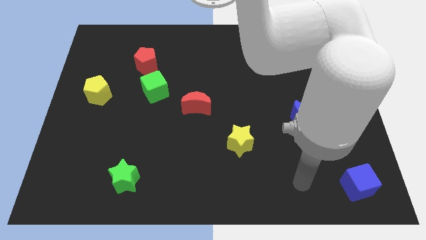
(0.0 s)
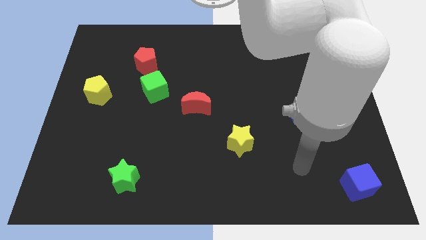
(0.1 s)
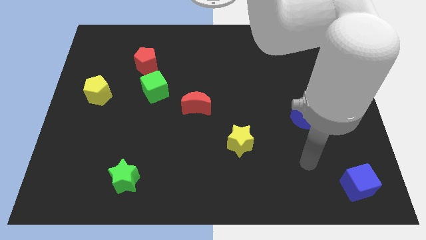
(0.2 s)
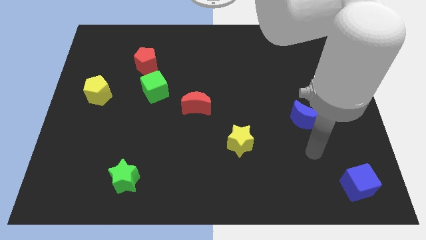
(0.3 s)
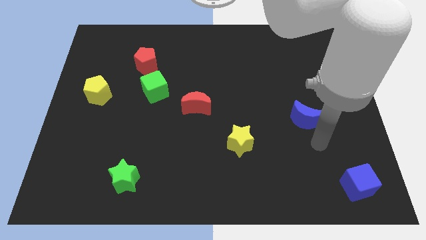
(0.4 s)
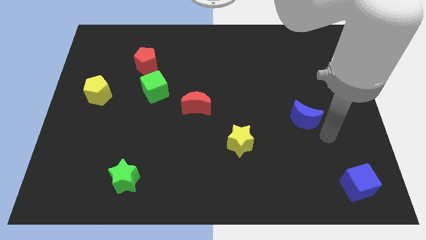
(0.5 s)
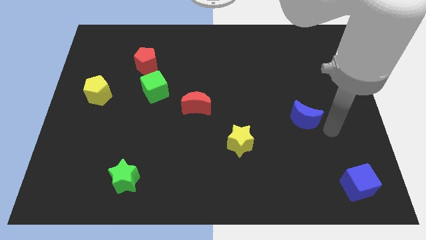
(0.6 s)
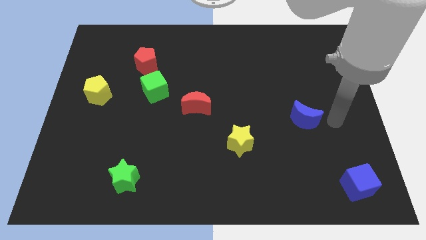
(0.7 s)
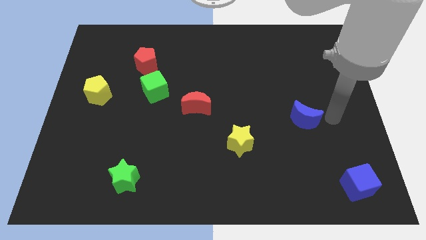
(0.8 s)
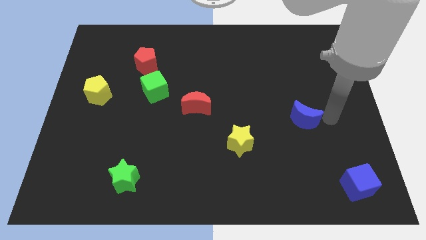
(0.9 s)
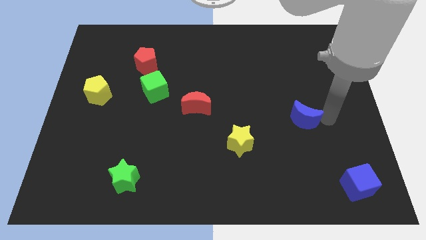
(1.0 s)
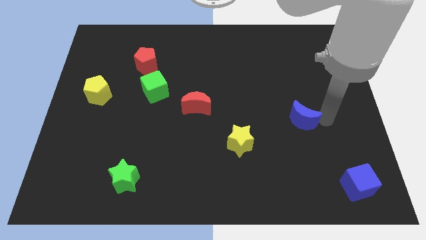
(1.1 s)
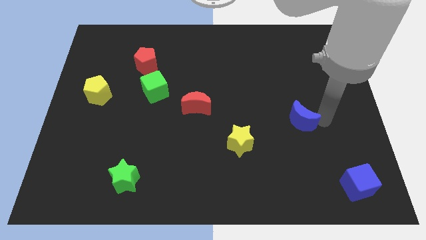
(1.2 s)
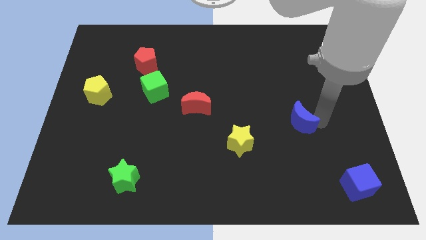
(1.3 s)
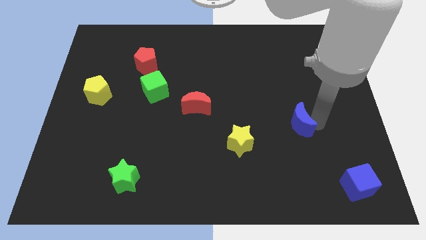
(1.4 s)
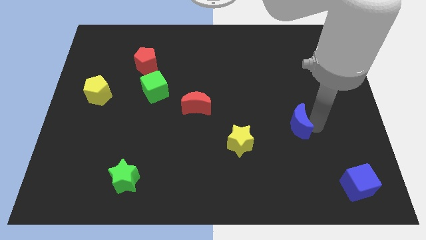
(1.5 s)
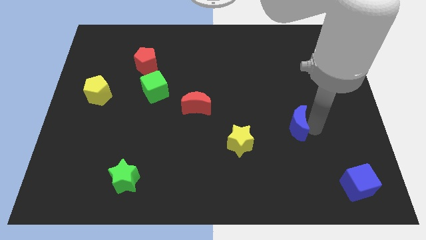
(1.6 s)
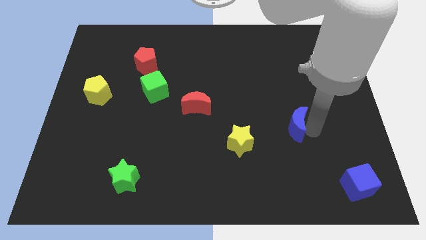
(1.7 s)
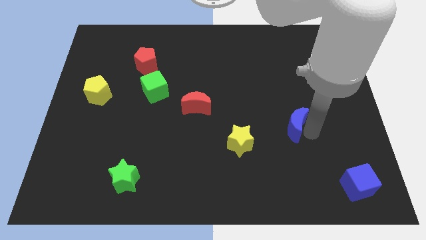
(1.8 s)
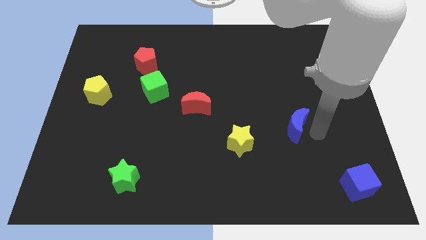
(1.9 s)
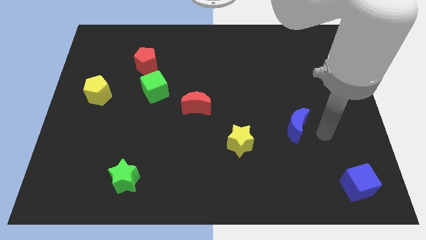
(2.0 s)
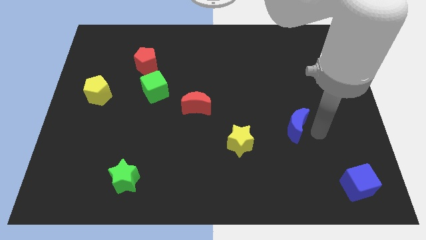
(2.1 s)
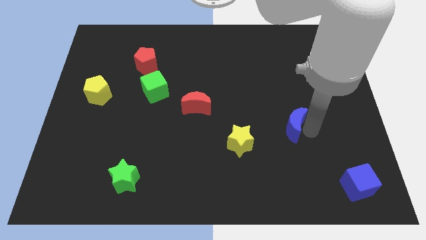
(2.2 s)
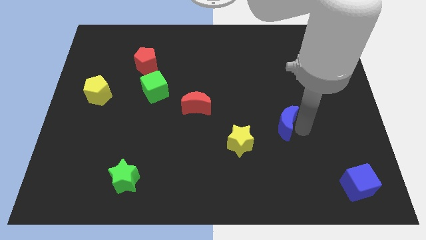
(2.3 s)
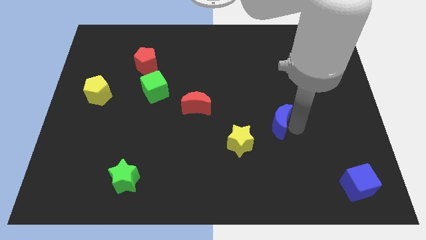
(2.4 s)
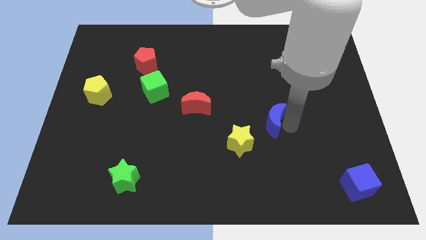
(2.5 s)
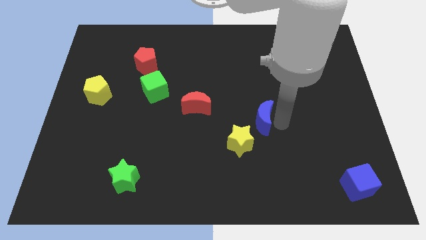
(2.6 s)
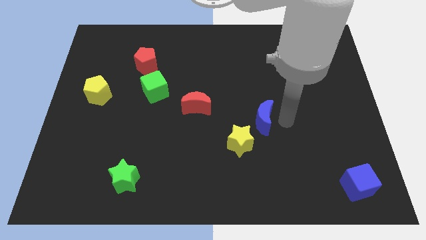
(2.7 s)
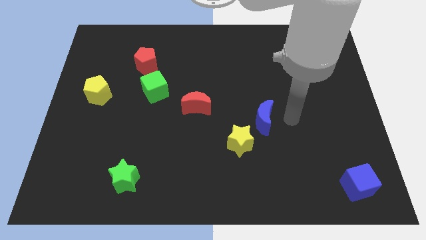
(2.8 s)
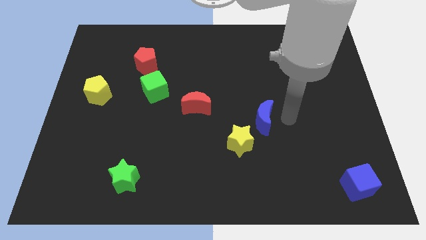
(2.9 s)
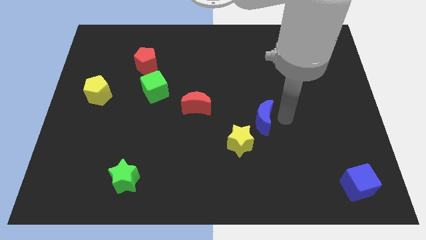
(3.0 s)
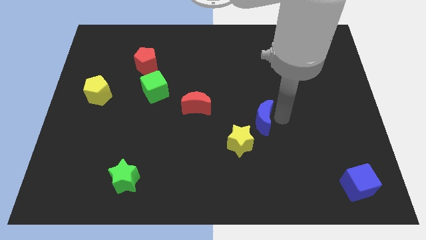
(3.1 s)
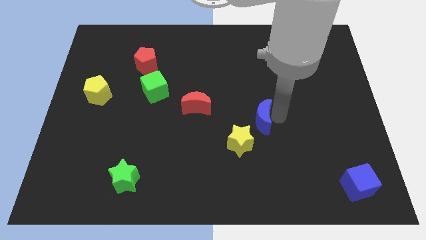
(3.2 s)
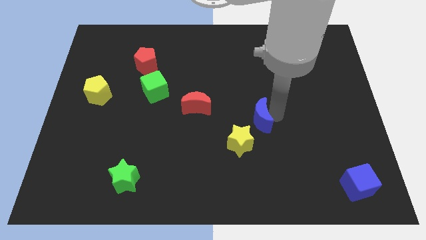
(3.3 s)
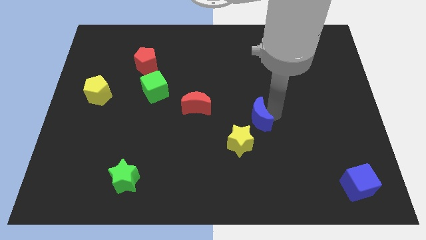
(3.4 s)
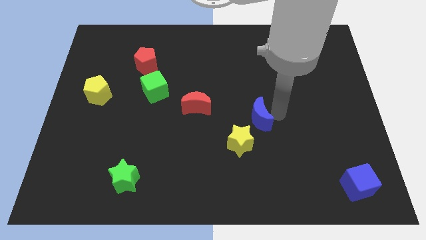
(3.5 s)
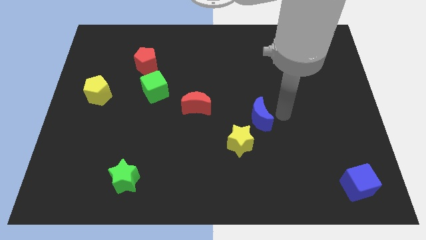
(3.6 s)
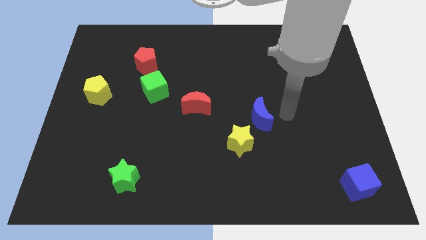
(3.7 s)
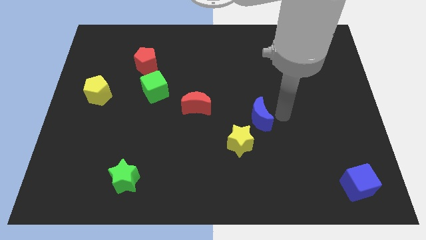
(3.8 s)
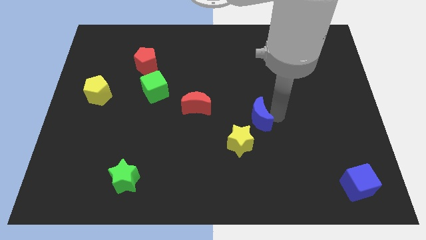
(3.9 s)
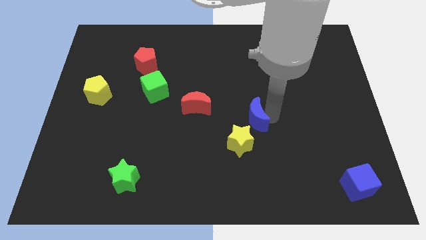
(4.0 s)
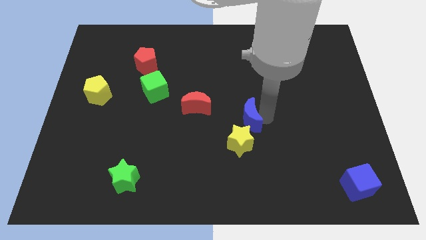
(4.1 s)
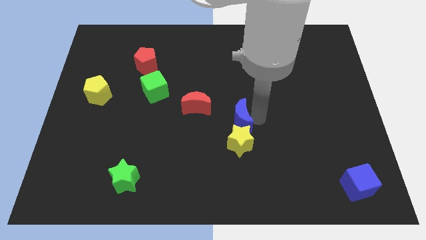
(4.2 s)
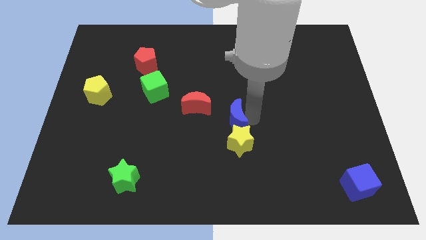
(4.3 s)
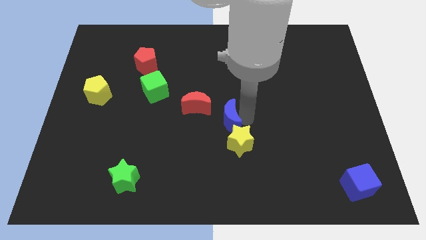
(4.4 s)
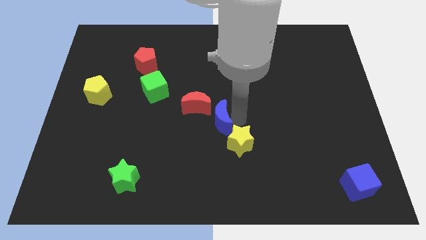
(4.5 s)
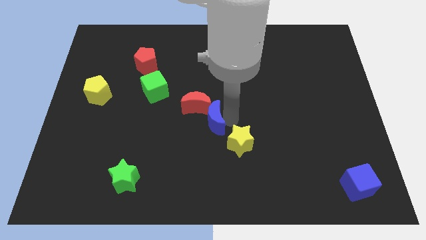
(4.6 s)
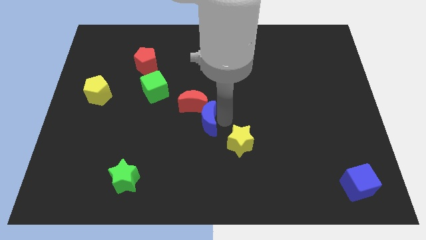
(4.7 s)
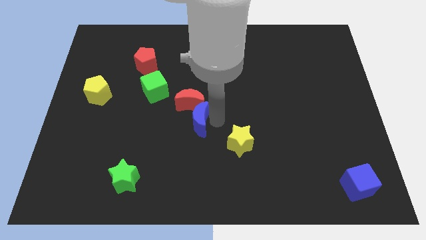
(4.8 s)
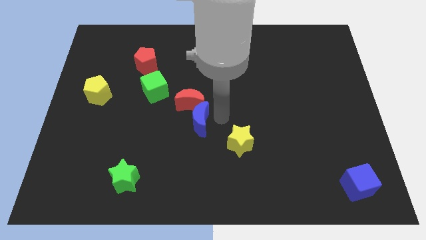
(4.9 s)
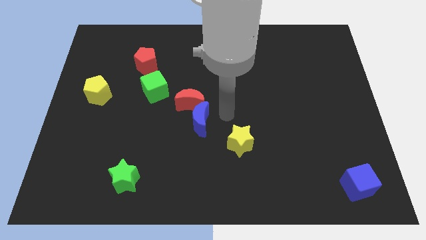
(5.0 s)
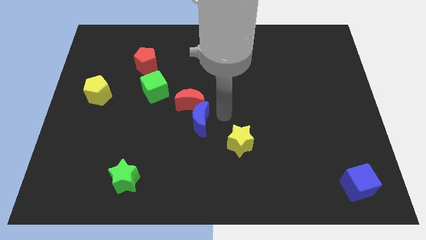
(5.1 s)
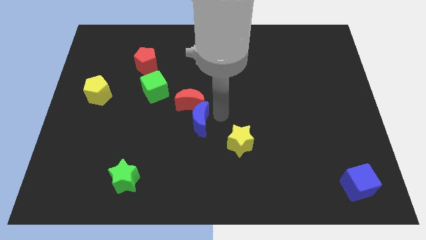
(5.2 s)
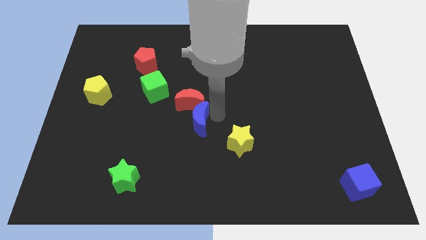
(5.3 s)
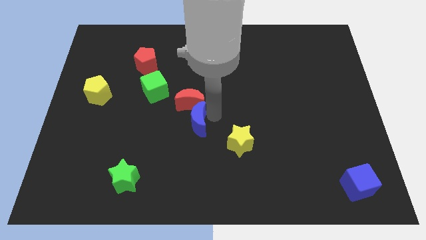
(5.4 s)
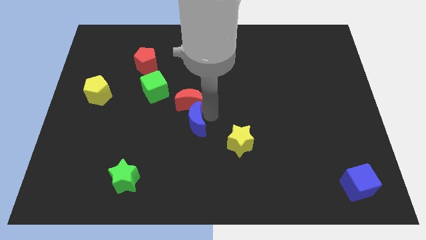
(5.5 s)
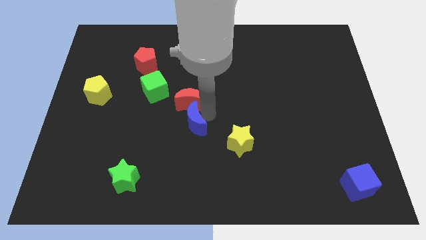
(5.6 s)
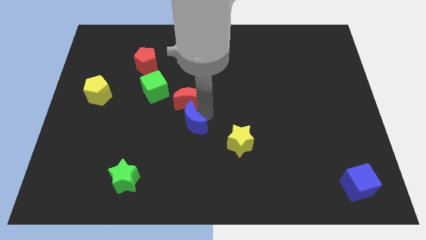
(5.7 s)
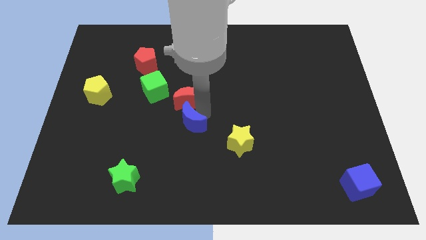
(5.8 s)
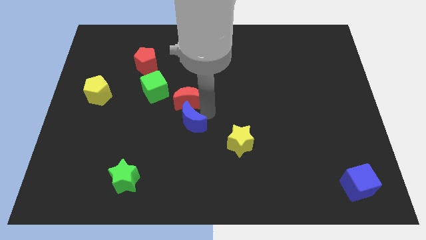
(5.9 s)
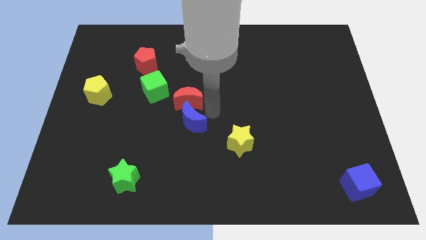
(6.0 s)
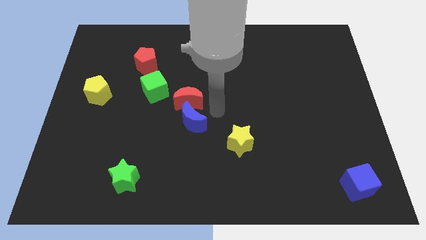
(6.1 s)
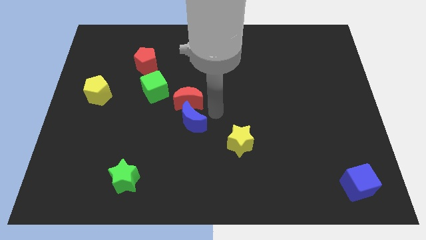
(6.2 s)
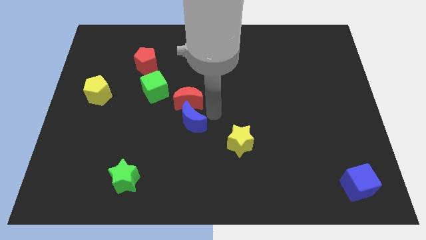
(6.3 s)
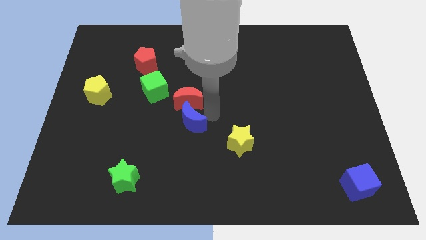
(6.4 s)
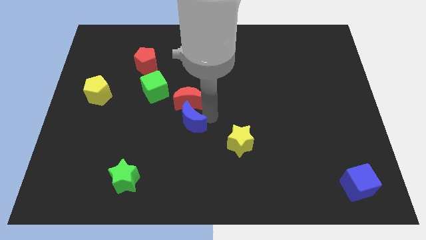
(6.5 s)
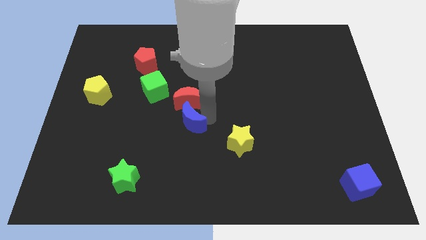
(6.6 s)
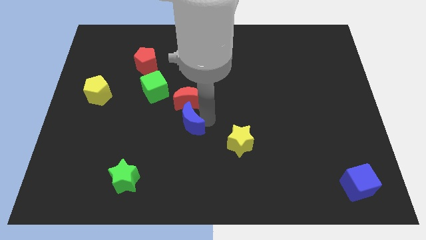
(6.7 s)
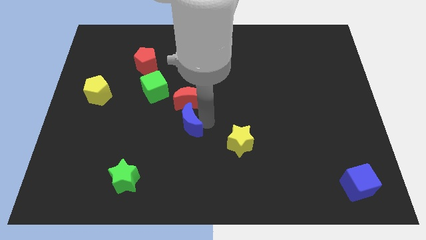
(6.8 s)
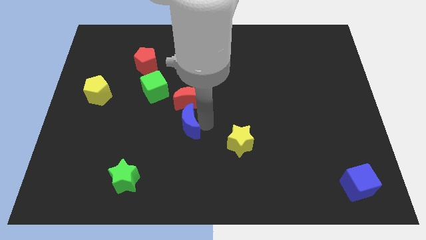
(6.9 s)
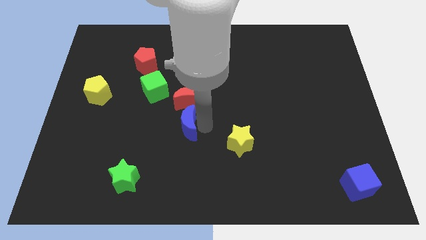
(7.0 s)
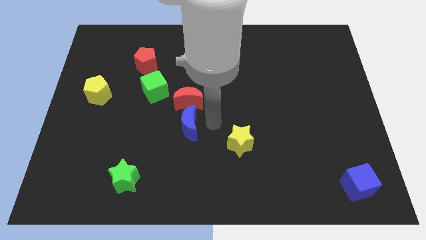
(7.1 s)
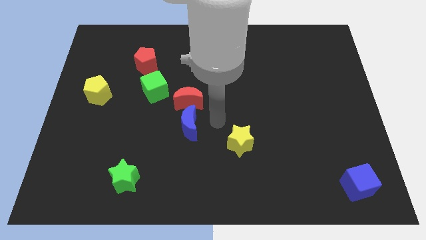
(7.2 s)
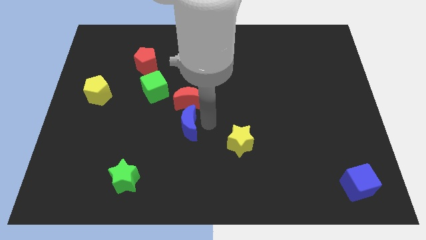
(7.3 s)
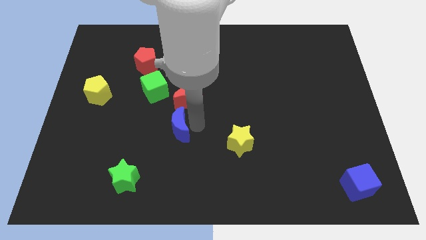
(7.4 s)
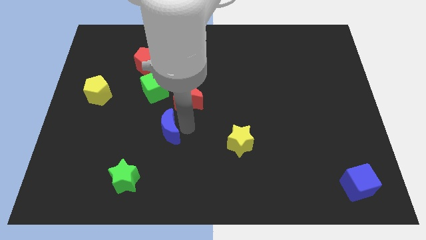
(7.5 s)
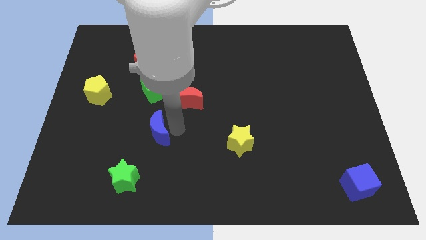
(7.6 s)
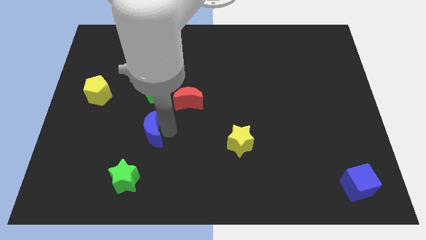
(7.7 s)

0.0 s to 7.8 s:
slide the blue moon to the top of the green star
